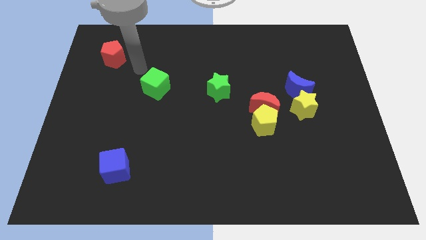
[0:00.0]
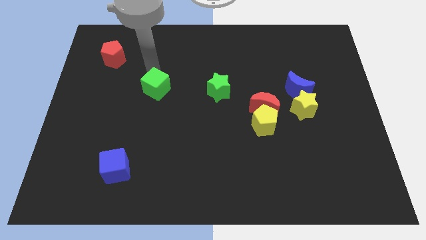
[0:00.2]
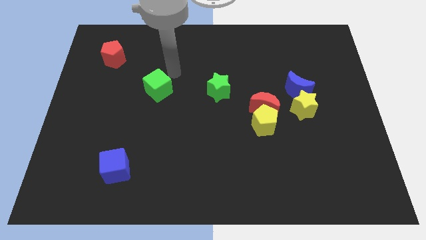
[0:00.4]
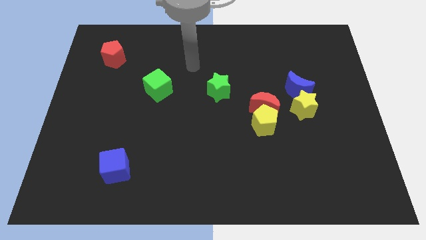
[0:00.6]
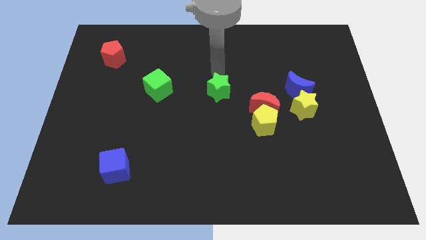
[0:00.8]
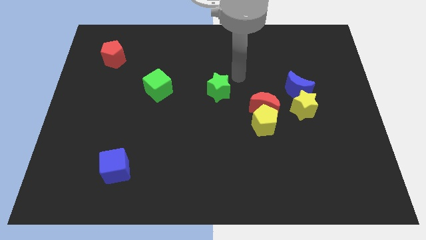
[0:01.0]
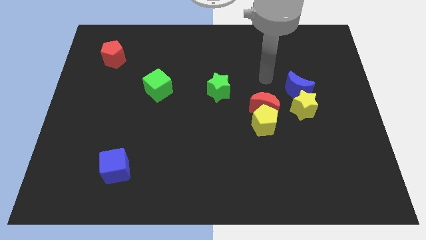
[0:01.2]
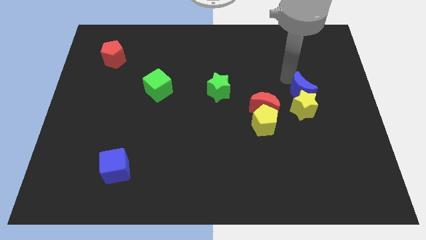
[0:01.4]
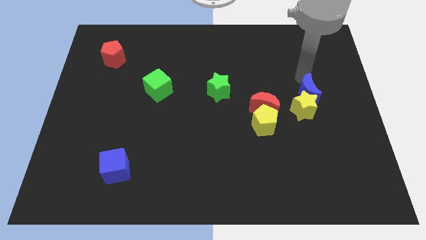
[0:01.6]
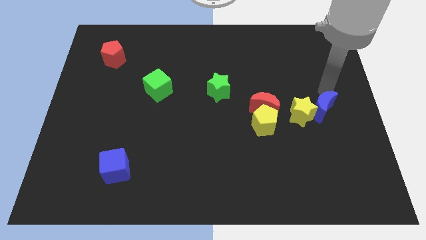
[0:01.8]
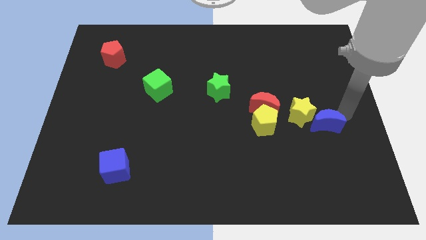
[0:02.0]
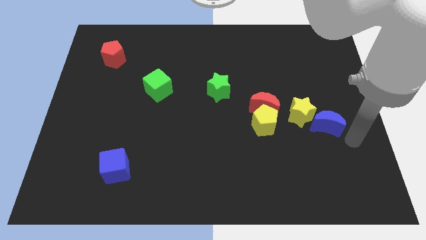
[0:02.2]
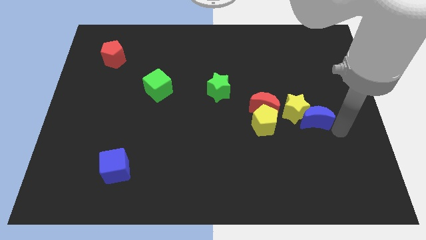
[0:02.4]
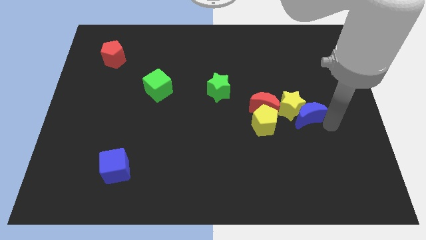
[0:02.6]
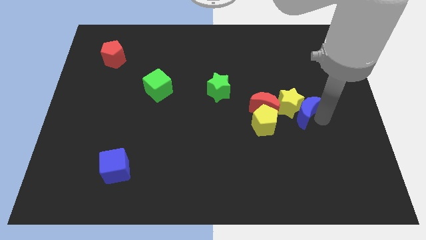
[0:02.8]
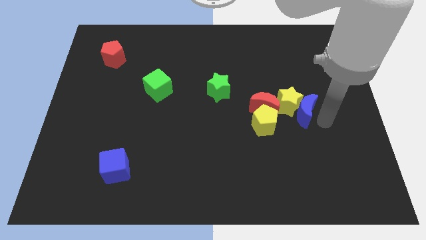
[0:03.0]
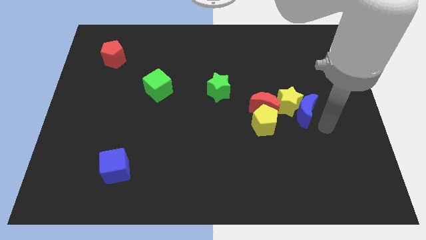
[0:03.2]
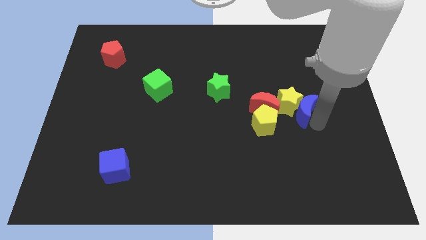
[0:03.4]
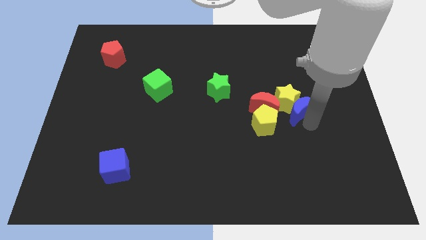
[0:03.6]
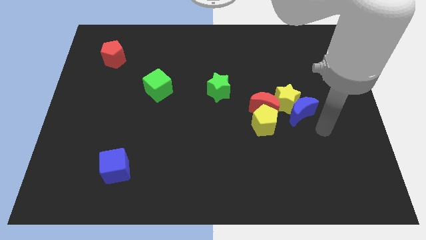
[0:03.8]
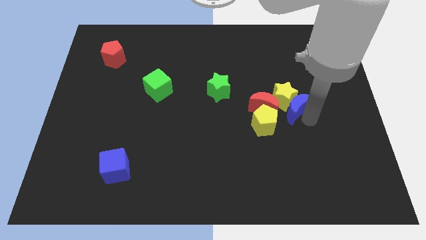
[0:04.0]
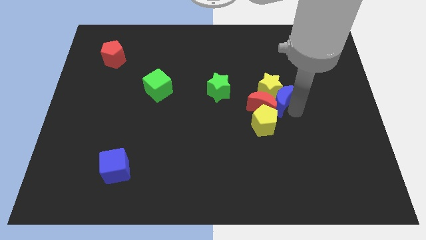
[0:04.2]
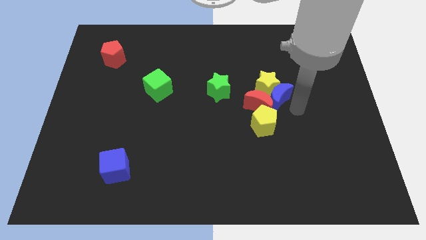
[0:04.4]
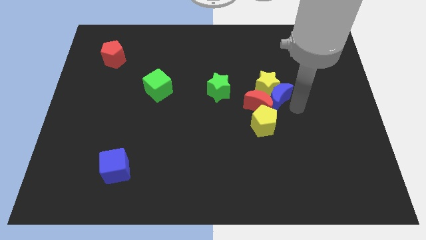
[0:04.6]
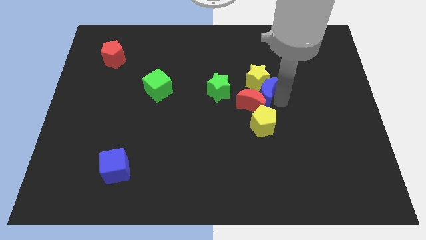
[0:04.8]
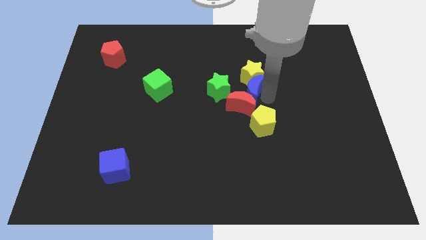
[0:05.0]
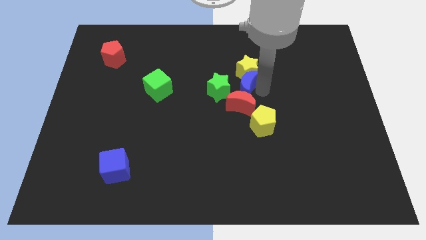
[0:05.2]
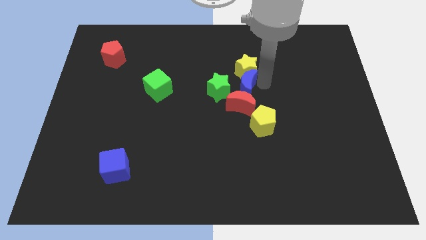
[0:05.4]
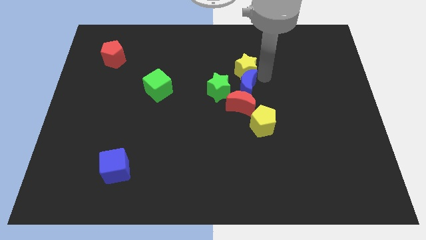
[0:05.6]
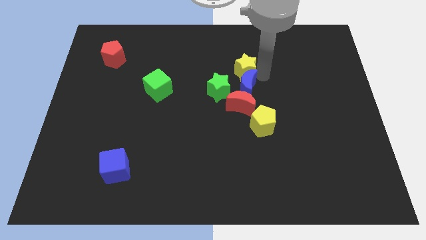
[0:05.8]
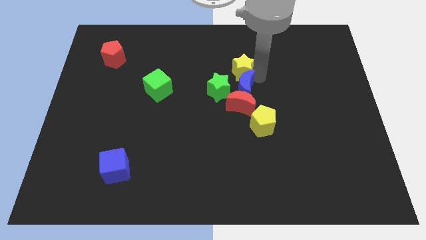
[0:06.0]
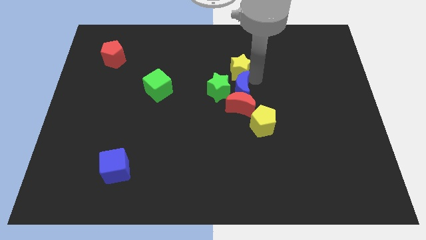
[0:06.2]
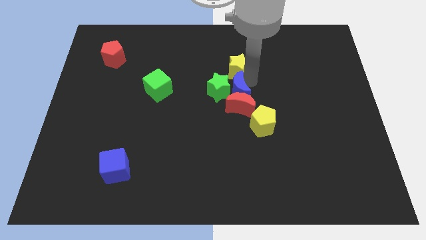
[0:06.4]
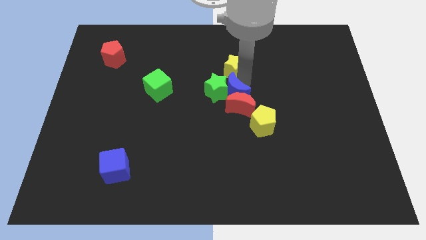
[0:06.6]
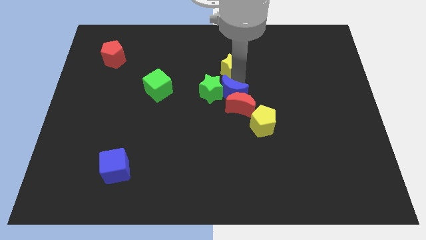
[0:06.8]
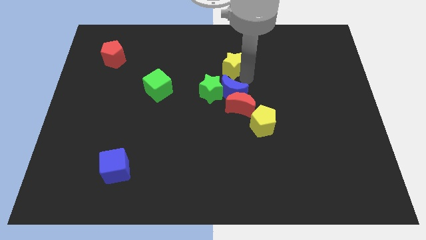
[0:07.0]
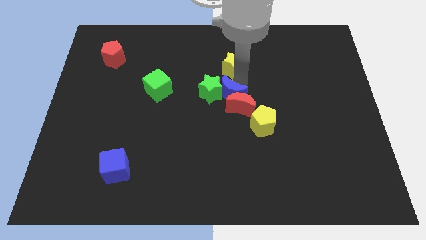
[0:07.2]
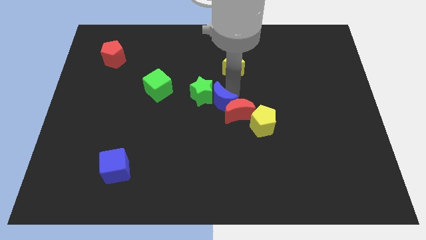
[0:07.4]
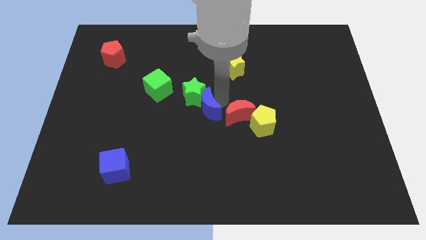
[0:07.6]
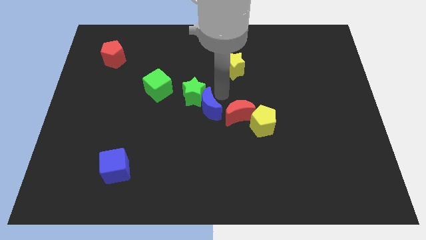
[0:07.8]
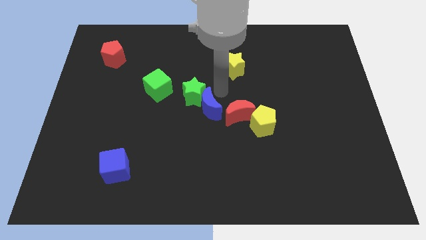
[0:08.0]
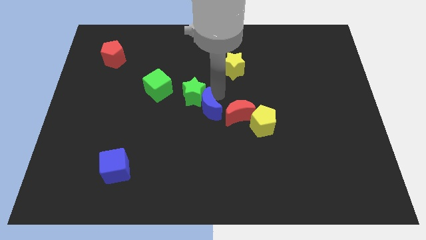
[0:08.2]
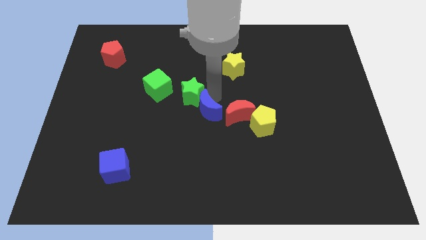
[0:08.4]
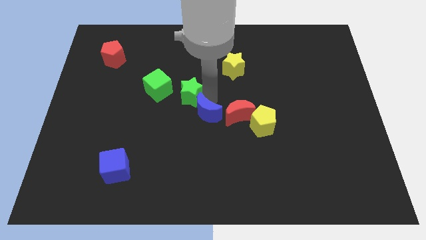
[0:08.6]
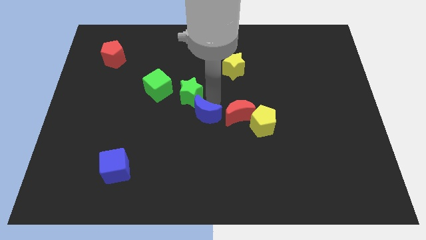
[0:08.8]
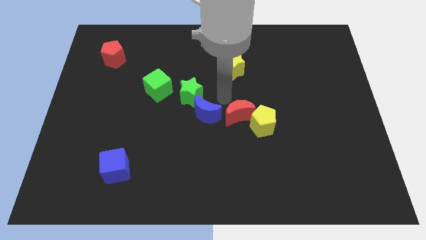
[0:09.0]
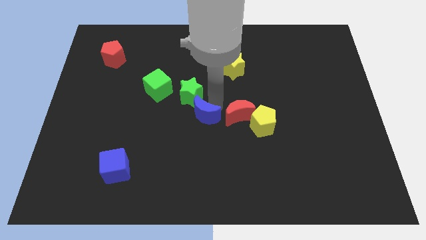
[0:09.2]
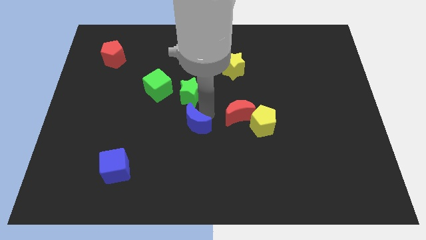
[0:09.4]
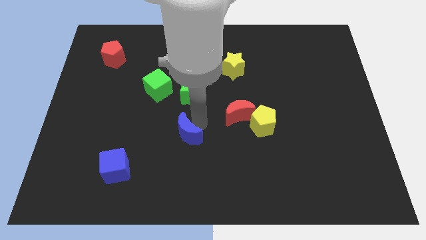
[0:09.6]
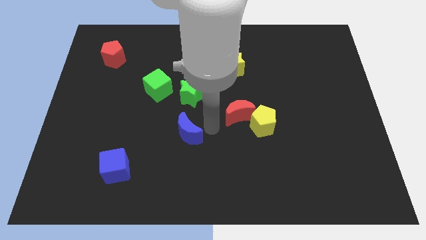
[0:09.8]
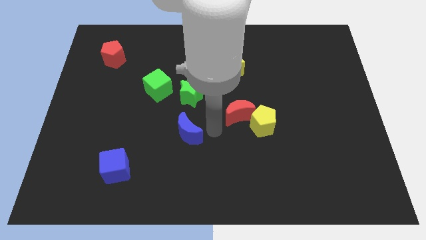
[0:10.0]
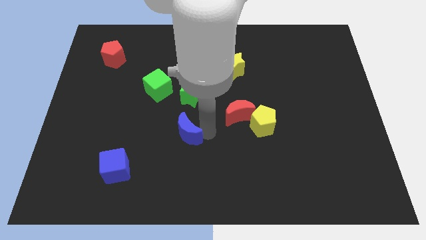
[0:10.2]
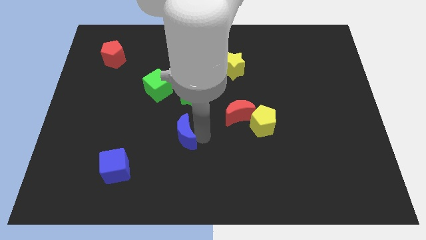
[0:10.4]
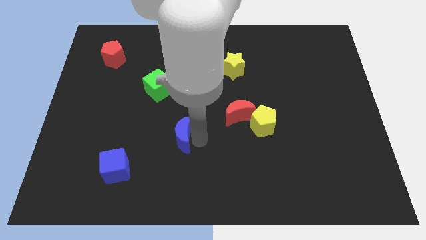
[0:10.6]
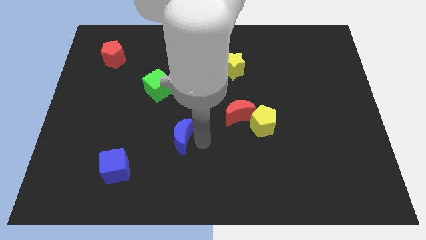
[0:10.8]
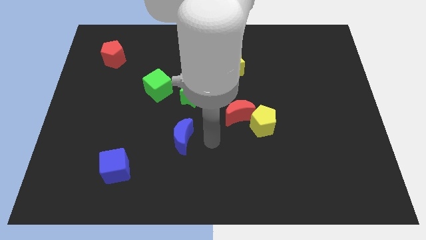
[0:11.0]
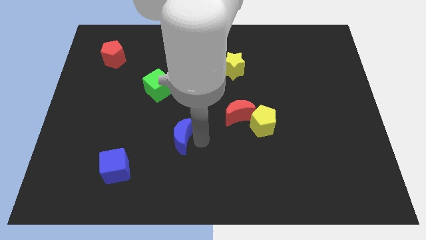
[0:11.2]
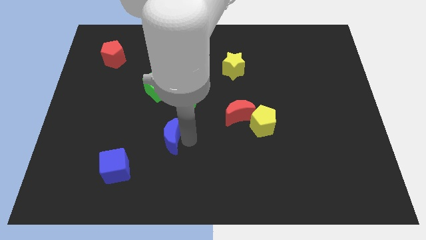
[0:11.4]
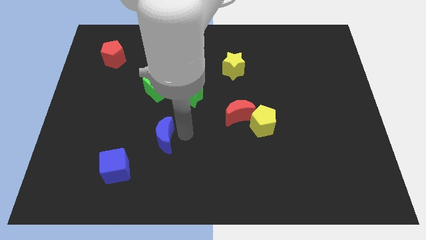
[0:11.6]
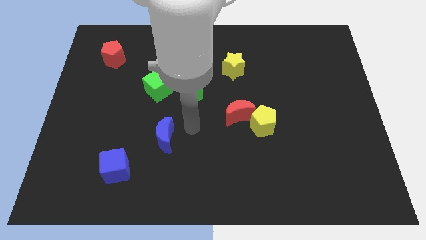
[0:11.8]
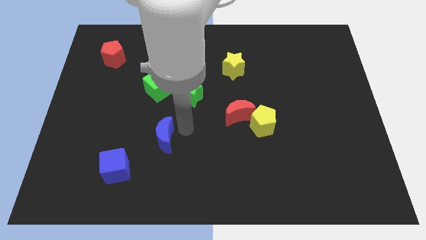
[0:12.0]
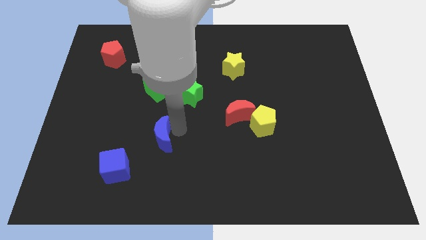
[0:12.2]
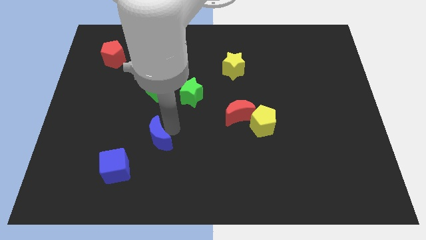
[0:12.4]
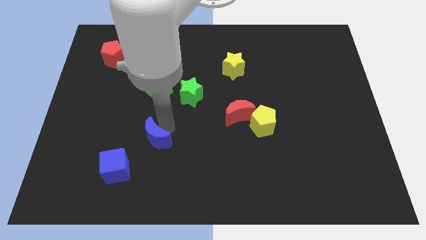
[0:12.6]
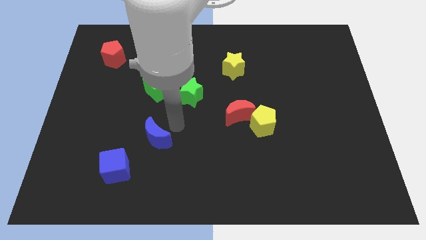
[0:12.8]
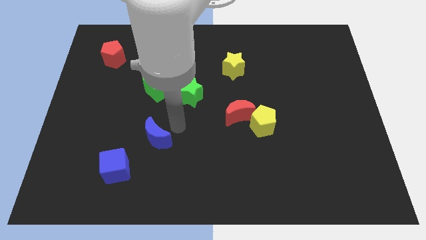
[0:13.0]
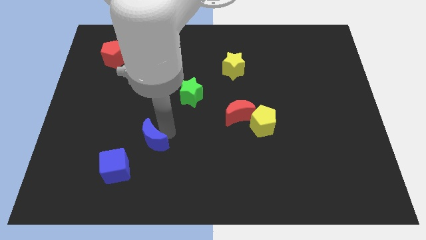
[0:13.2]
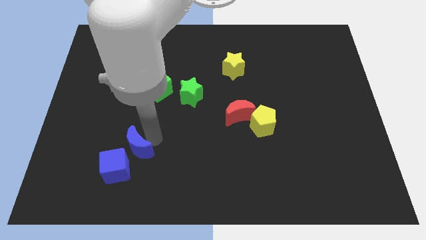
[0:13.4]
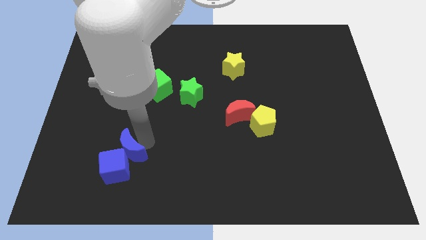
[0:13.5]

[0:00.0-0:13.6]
move the blue moon close to the blue cube

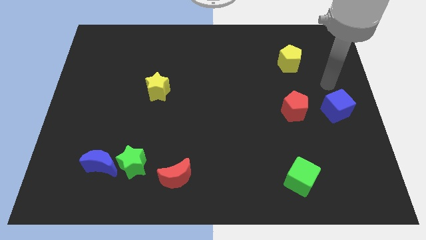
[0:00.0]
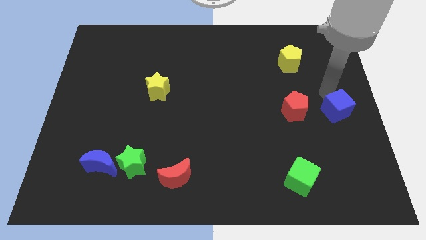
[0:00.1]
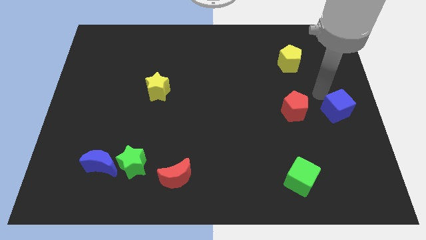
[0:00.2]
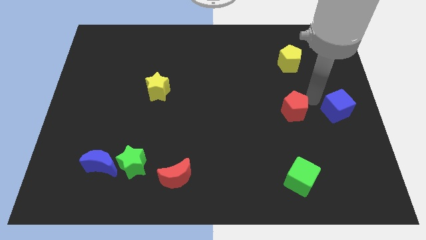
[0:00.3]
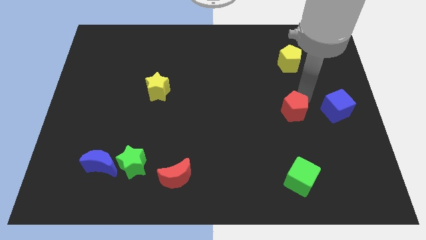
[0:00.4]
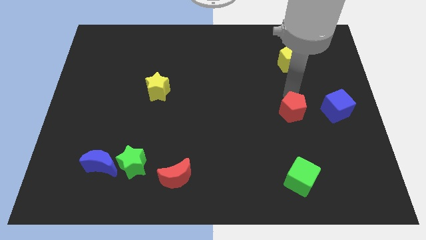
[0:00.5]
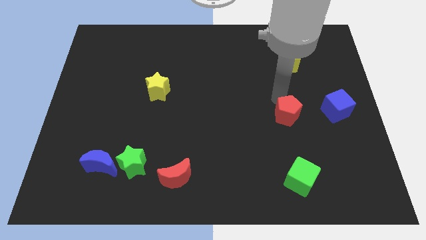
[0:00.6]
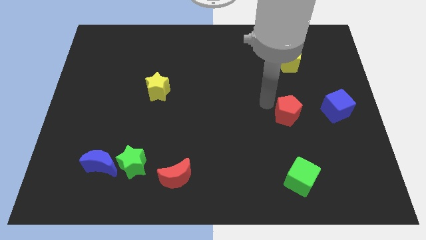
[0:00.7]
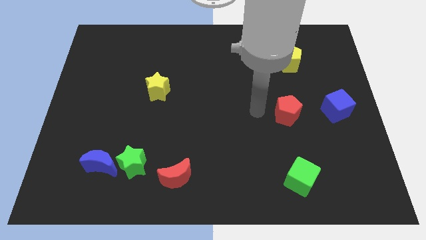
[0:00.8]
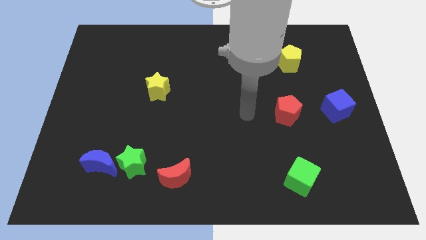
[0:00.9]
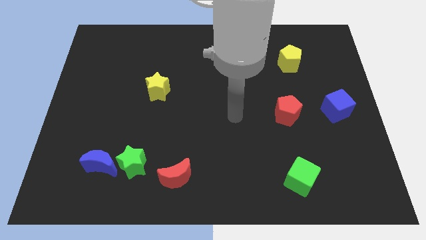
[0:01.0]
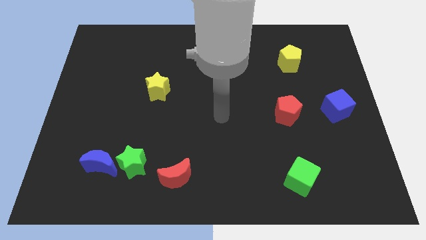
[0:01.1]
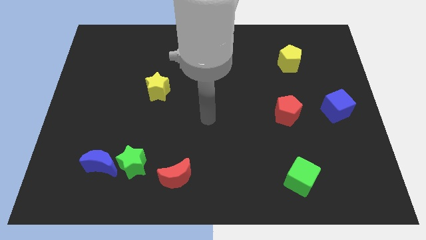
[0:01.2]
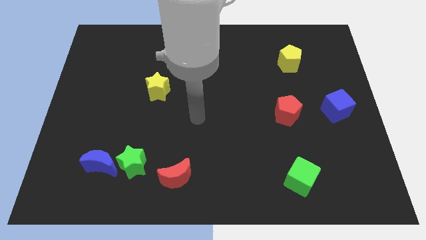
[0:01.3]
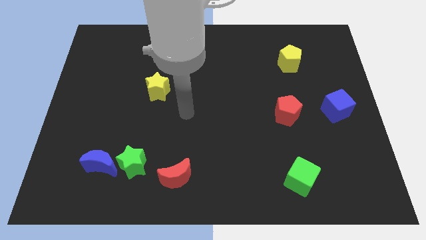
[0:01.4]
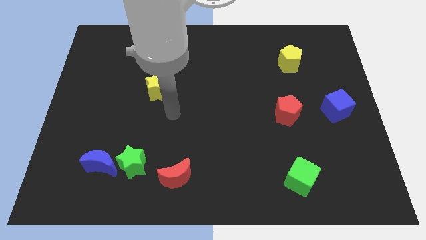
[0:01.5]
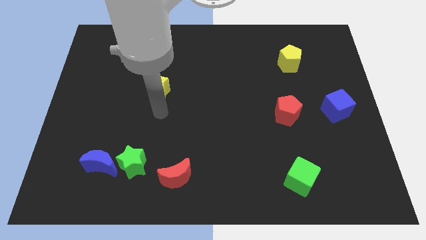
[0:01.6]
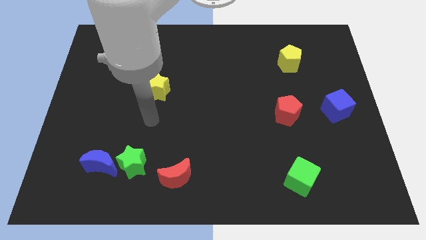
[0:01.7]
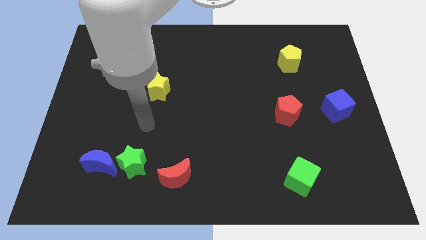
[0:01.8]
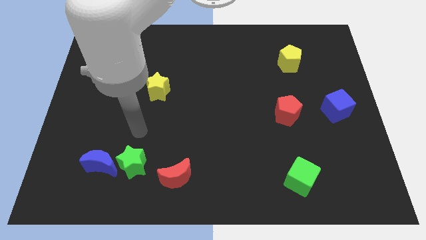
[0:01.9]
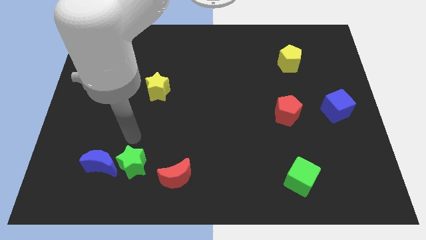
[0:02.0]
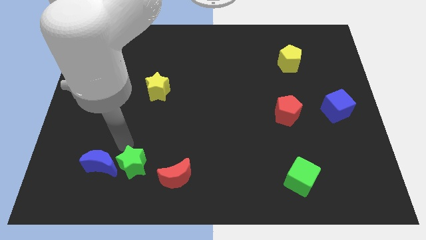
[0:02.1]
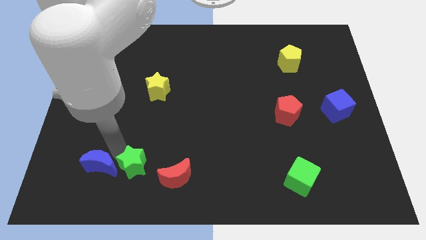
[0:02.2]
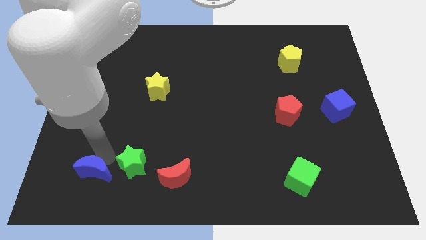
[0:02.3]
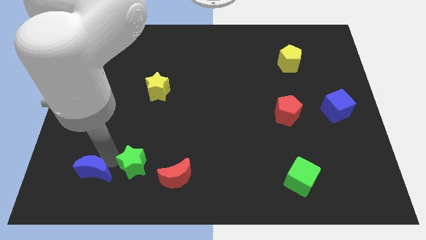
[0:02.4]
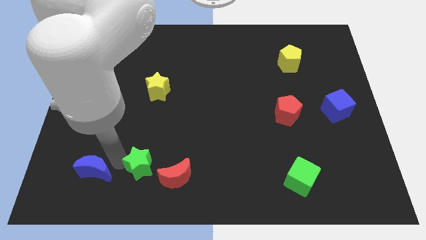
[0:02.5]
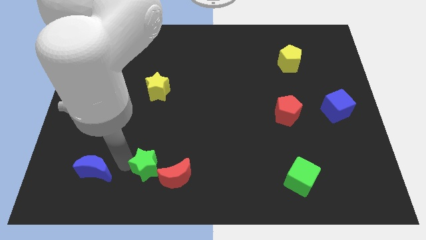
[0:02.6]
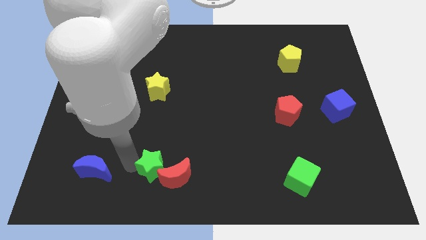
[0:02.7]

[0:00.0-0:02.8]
slide the green star towards the red moon
